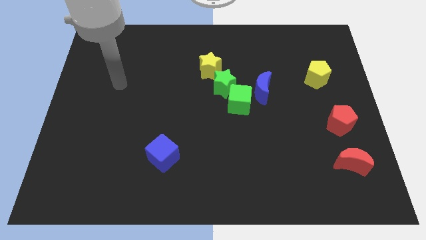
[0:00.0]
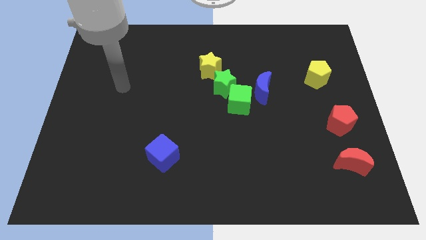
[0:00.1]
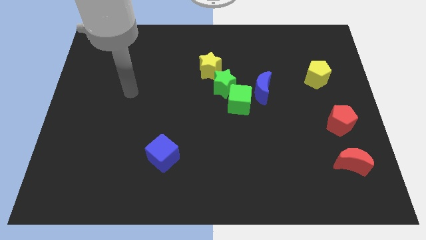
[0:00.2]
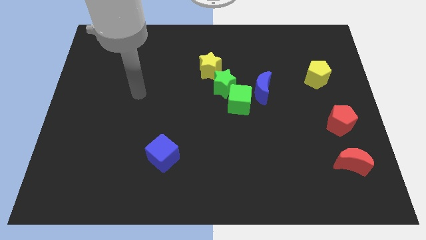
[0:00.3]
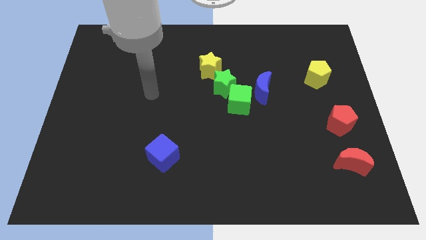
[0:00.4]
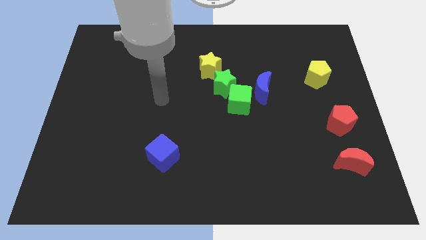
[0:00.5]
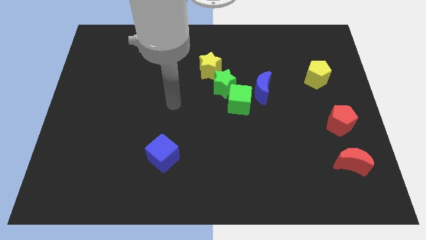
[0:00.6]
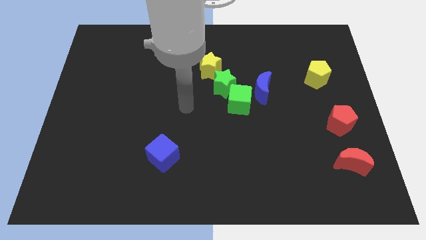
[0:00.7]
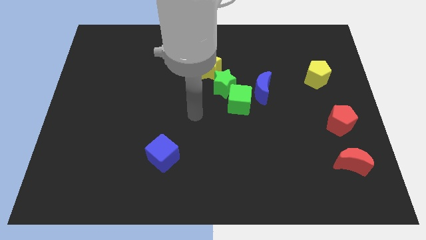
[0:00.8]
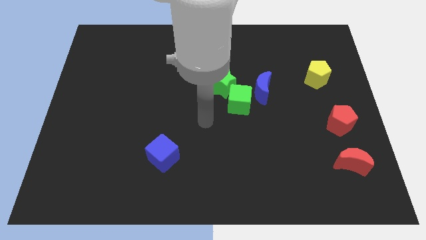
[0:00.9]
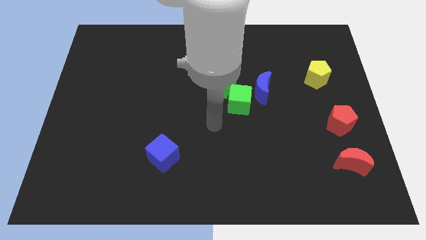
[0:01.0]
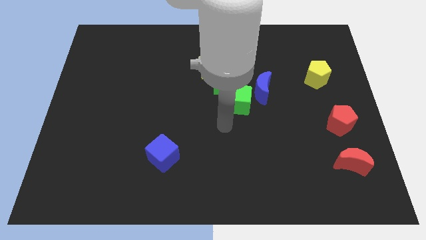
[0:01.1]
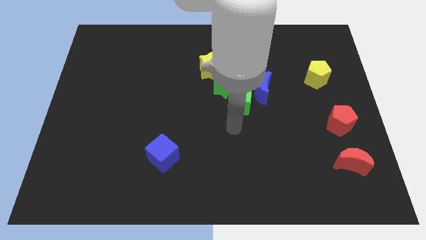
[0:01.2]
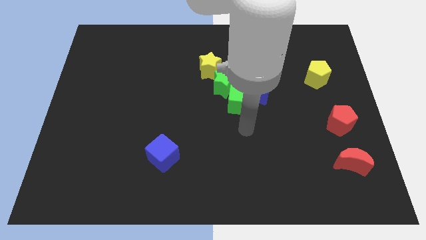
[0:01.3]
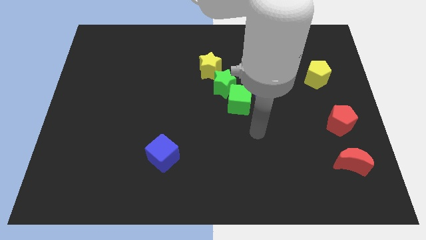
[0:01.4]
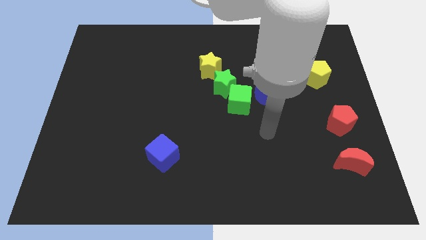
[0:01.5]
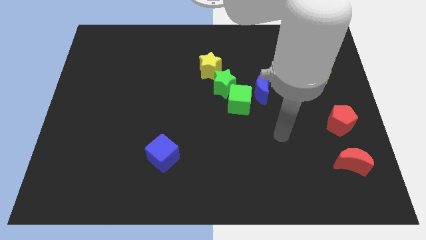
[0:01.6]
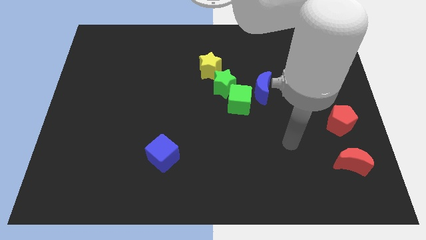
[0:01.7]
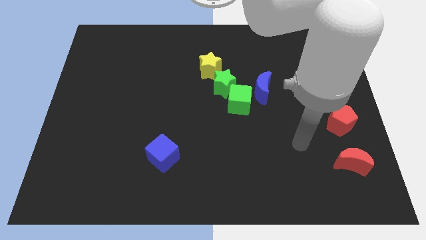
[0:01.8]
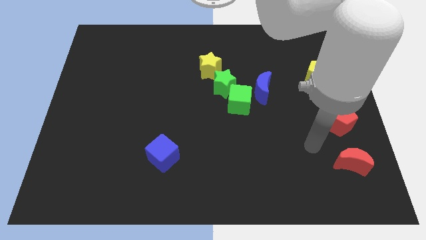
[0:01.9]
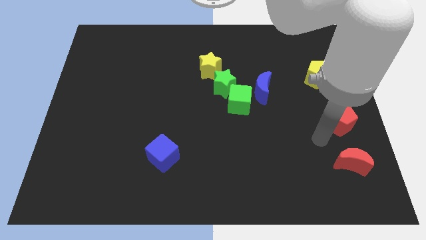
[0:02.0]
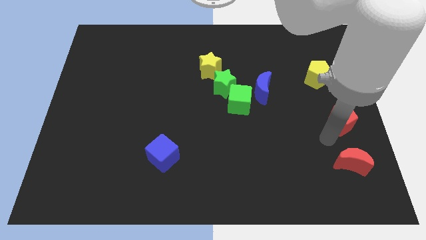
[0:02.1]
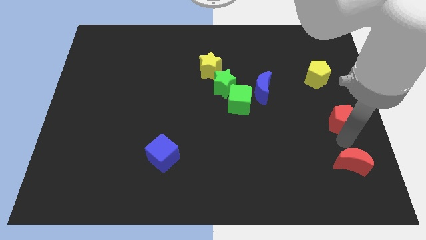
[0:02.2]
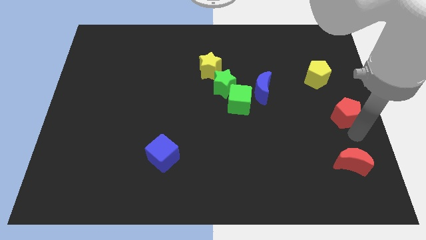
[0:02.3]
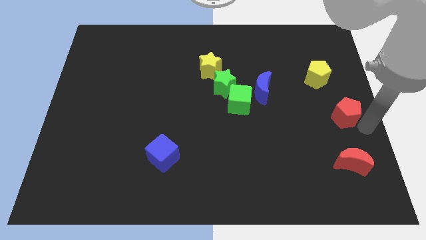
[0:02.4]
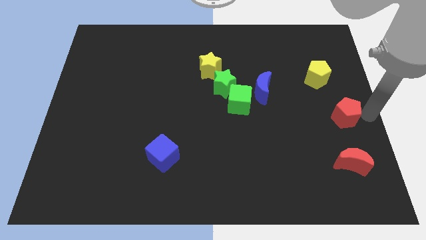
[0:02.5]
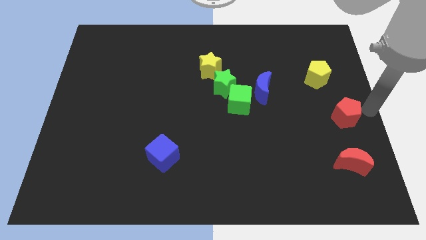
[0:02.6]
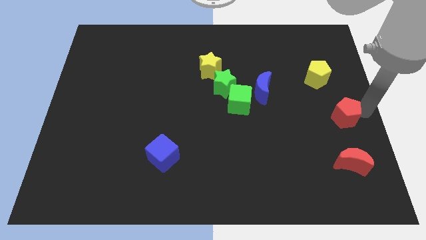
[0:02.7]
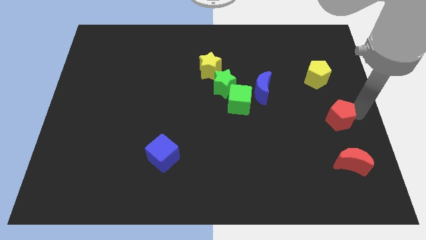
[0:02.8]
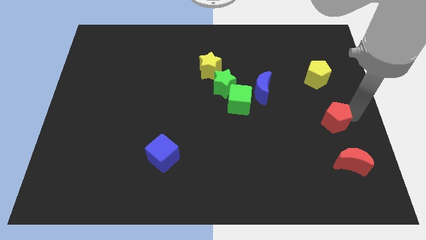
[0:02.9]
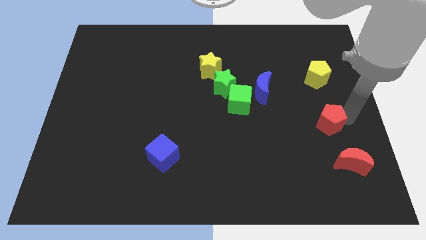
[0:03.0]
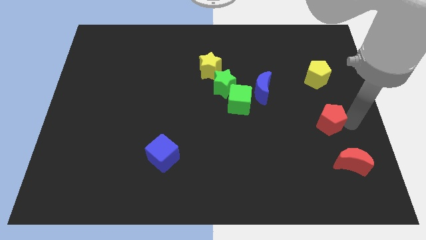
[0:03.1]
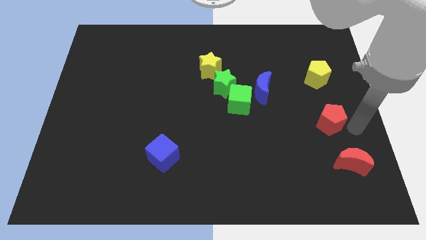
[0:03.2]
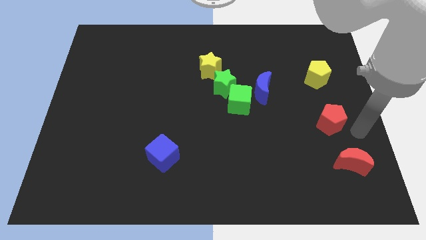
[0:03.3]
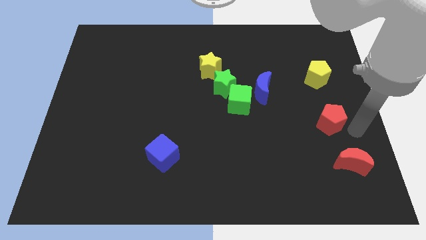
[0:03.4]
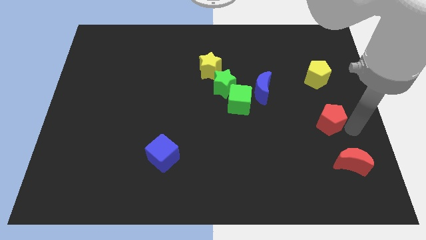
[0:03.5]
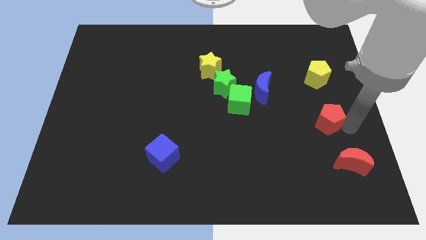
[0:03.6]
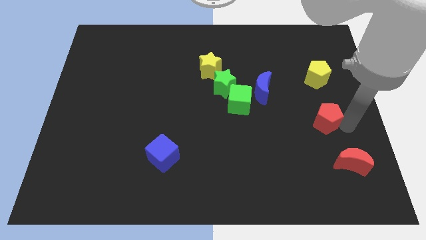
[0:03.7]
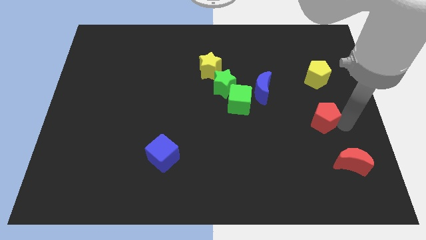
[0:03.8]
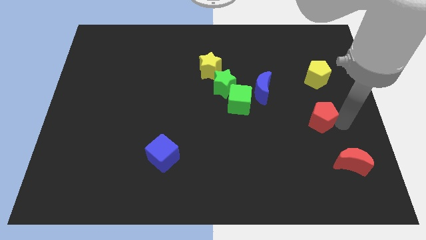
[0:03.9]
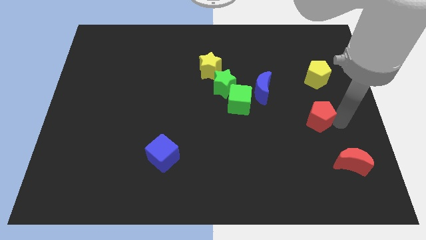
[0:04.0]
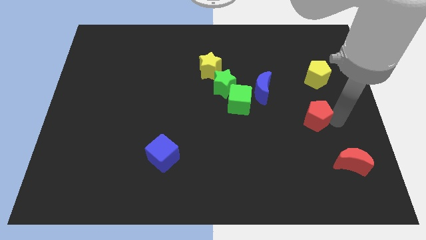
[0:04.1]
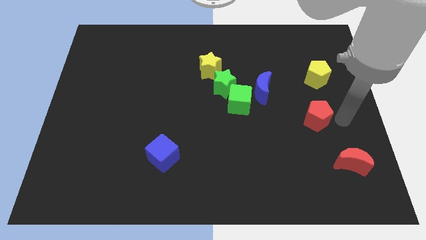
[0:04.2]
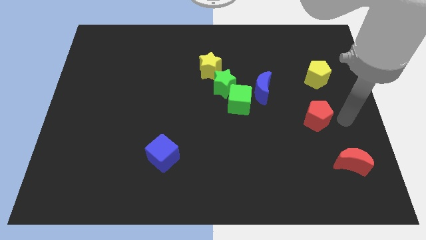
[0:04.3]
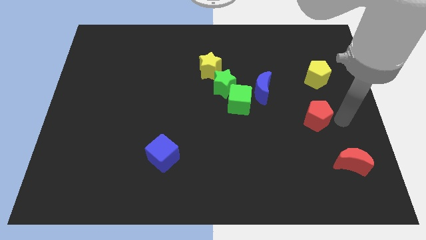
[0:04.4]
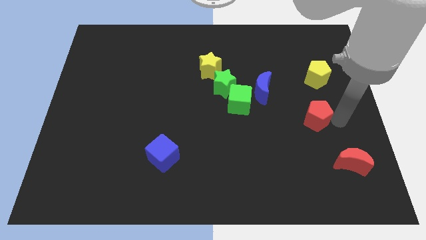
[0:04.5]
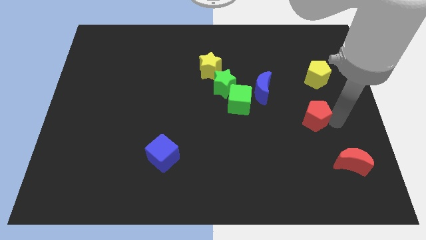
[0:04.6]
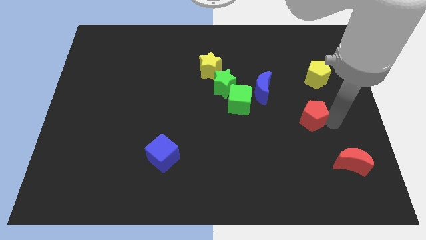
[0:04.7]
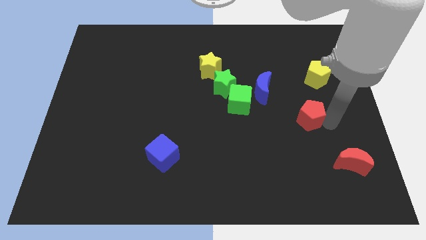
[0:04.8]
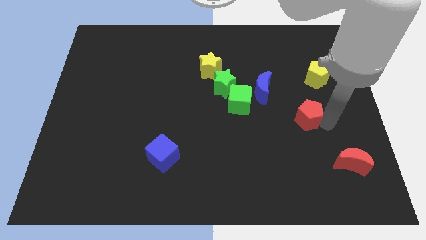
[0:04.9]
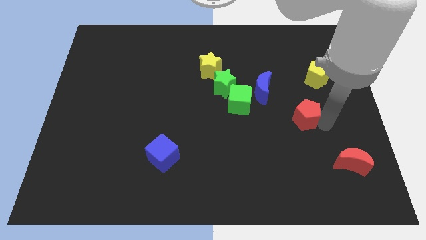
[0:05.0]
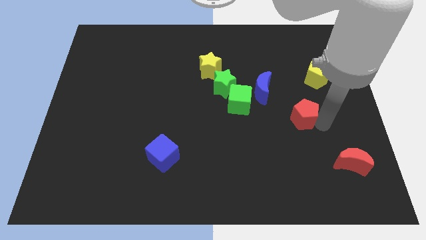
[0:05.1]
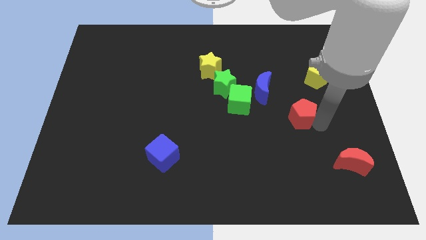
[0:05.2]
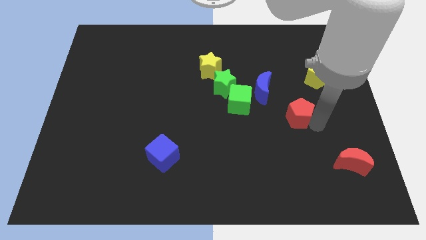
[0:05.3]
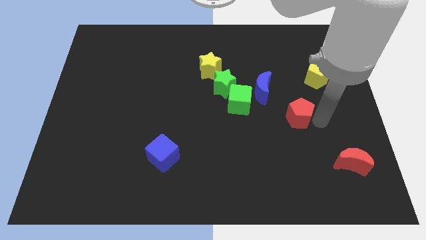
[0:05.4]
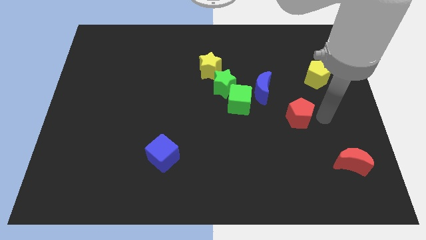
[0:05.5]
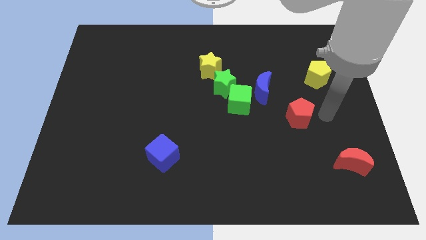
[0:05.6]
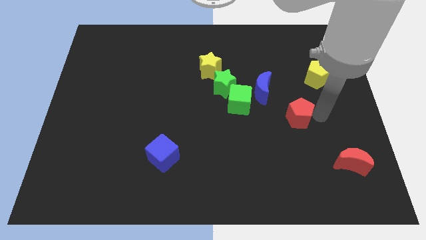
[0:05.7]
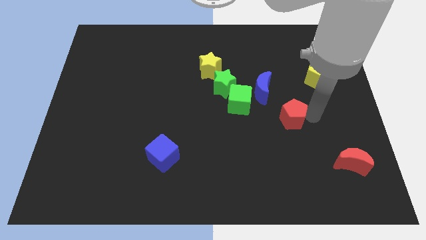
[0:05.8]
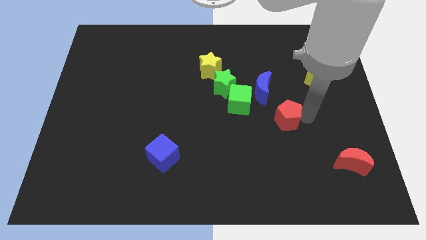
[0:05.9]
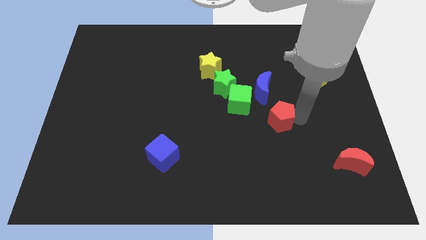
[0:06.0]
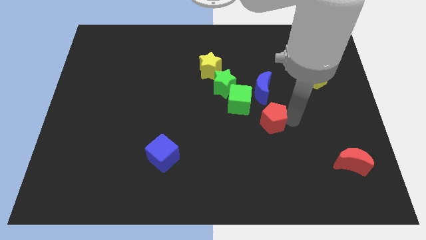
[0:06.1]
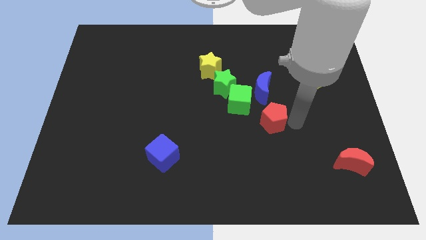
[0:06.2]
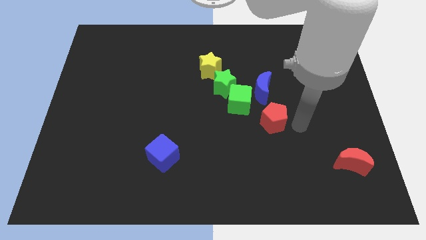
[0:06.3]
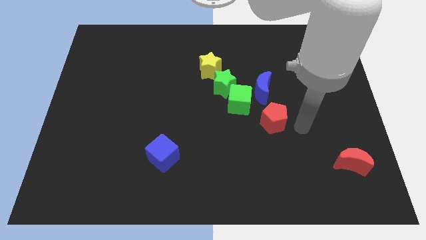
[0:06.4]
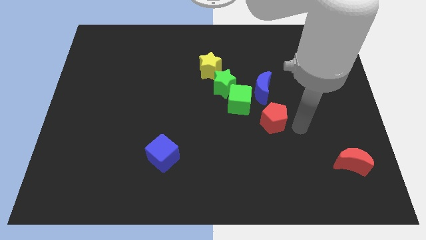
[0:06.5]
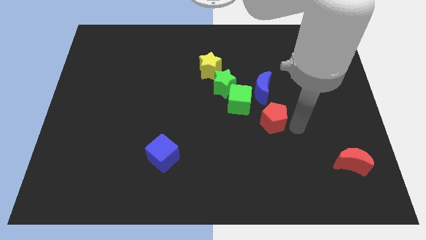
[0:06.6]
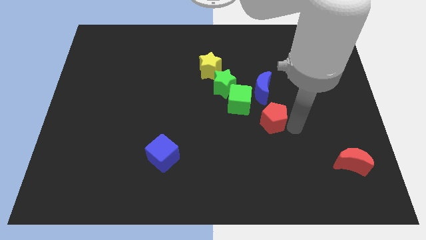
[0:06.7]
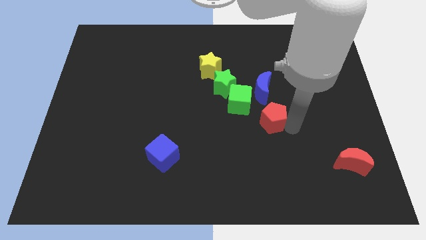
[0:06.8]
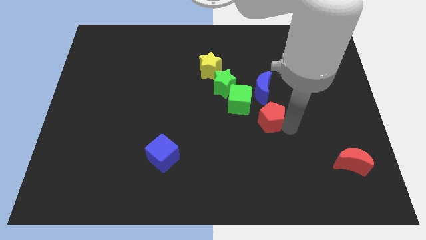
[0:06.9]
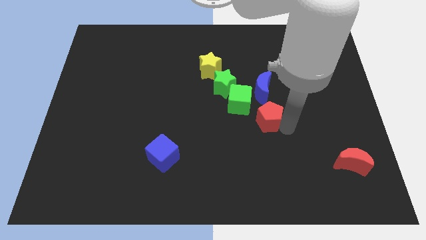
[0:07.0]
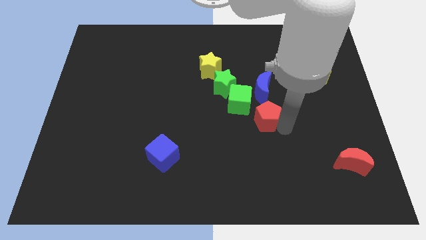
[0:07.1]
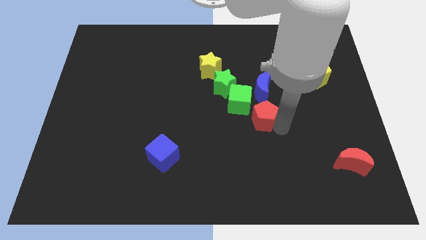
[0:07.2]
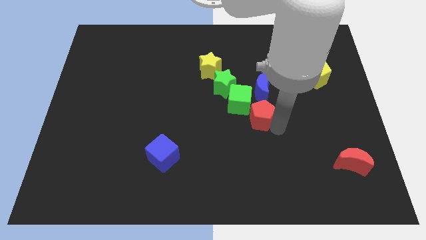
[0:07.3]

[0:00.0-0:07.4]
push the red pentagon to the middle
